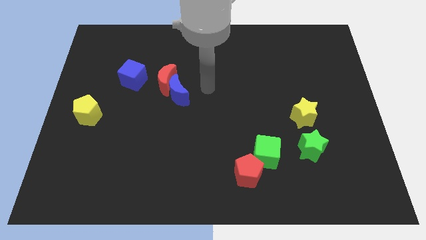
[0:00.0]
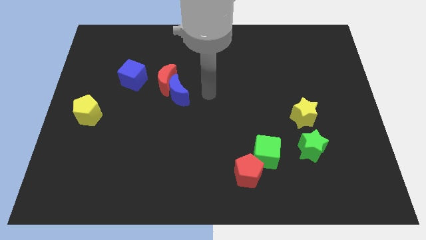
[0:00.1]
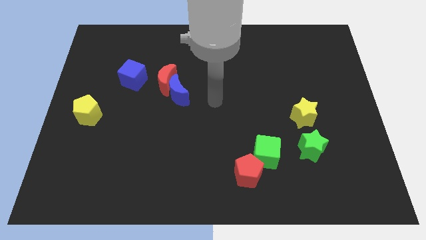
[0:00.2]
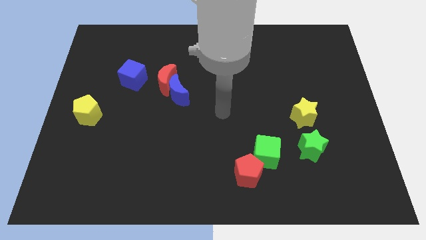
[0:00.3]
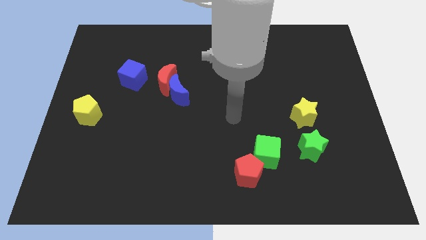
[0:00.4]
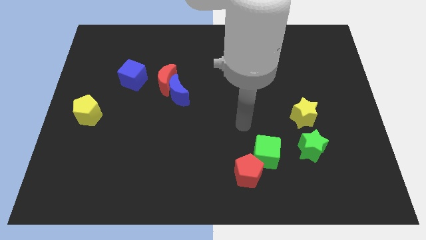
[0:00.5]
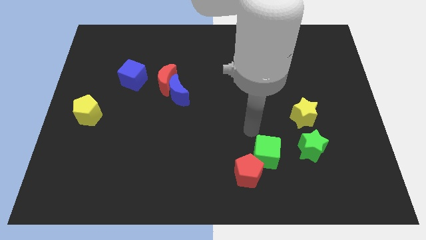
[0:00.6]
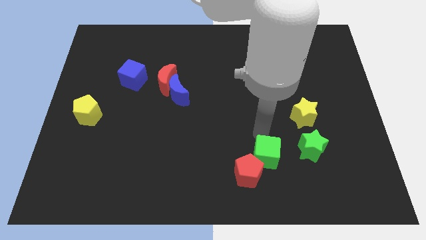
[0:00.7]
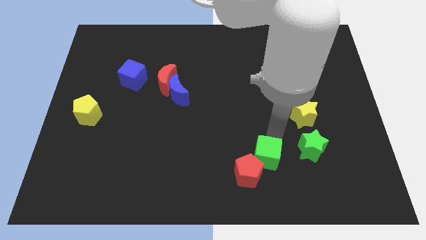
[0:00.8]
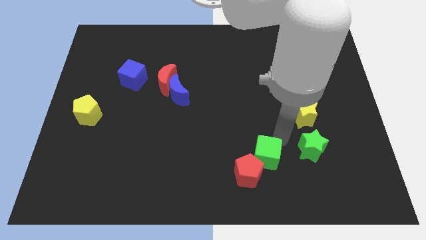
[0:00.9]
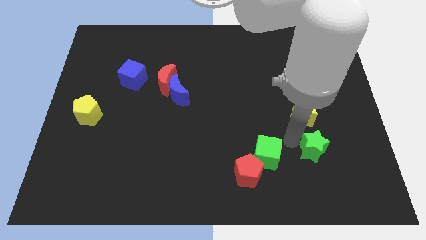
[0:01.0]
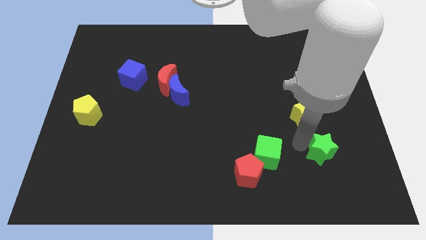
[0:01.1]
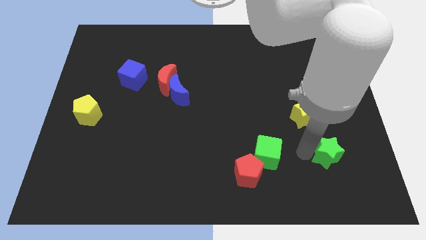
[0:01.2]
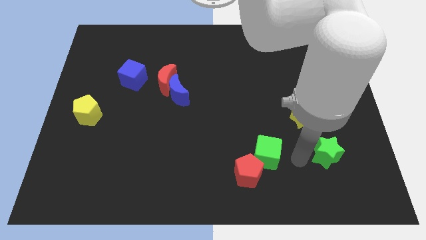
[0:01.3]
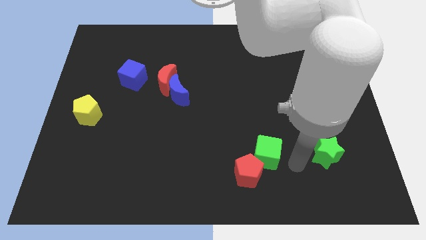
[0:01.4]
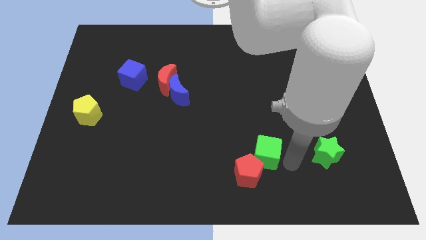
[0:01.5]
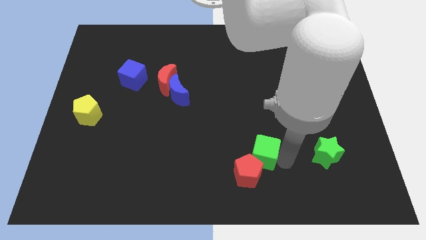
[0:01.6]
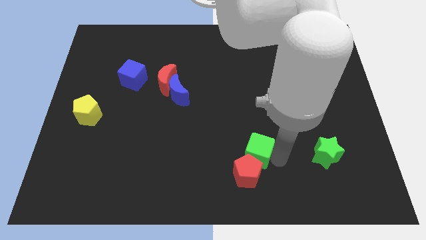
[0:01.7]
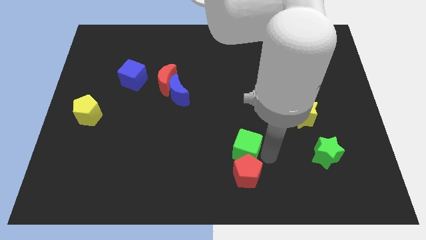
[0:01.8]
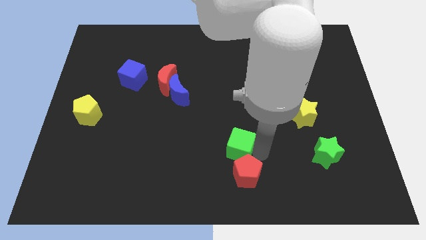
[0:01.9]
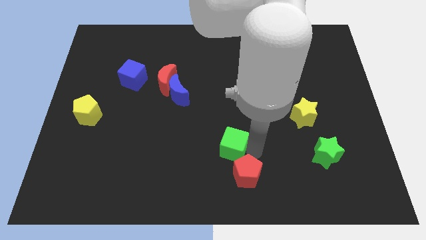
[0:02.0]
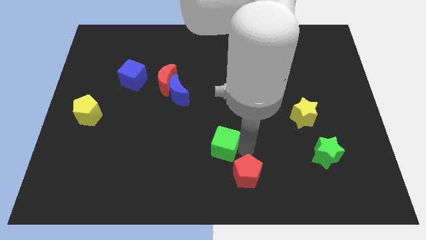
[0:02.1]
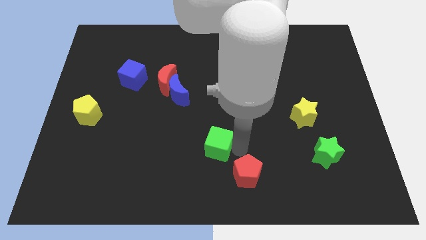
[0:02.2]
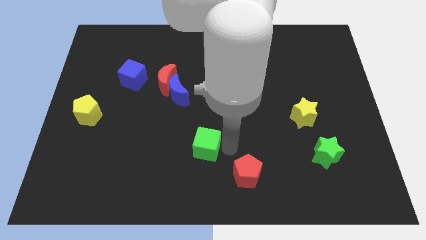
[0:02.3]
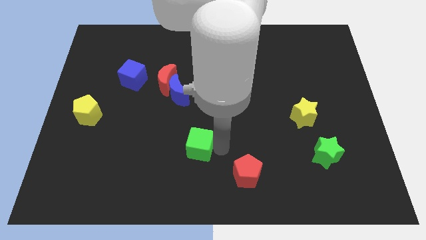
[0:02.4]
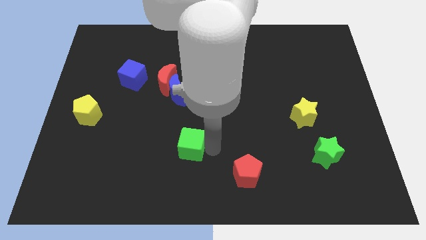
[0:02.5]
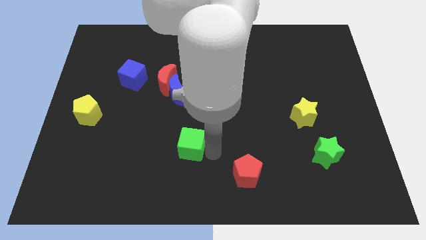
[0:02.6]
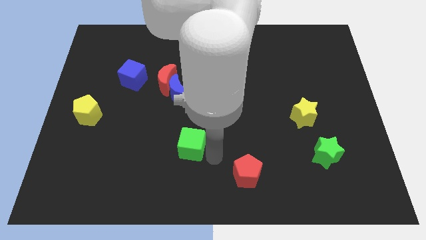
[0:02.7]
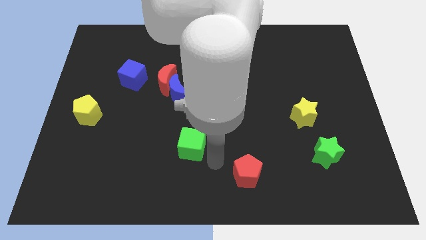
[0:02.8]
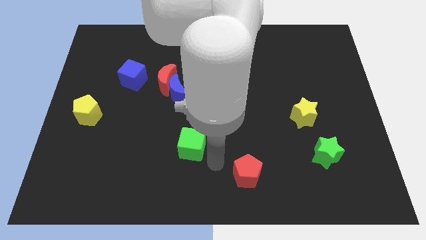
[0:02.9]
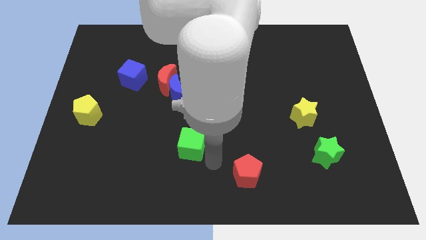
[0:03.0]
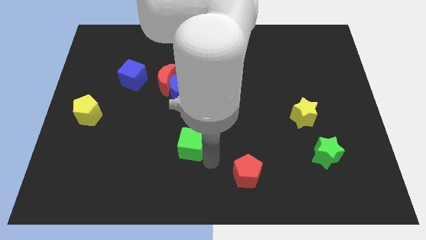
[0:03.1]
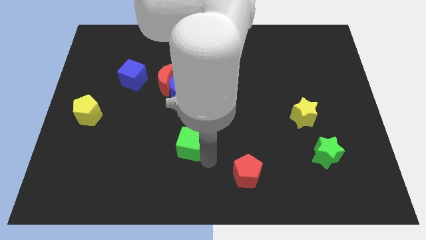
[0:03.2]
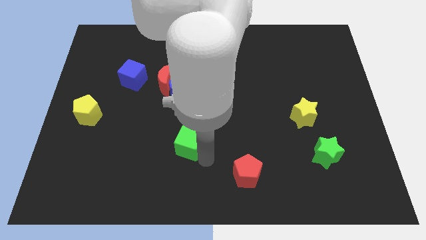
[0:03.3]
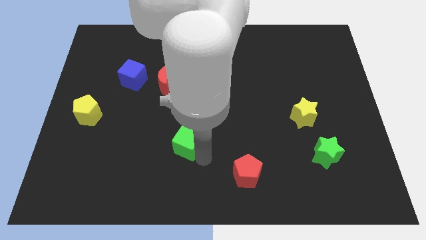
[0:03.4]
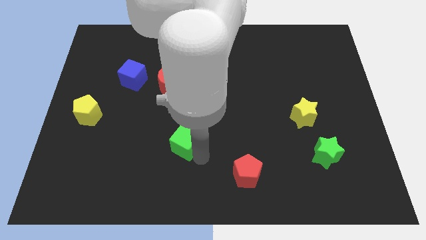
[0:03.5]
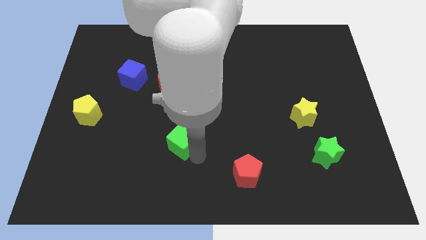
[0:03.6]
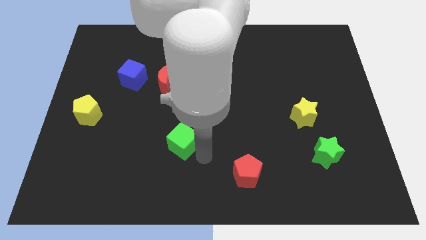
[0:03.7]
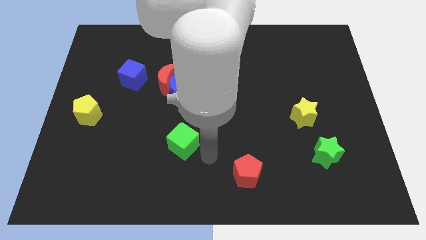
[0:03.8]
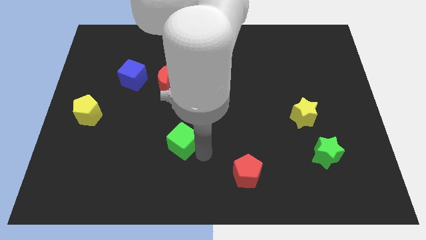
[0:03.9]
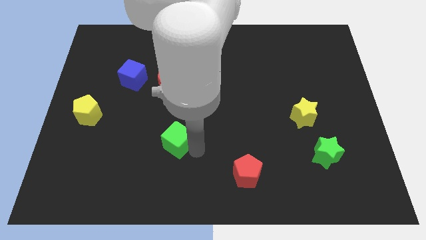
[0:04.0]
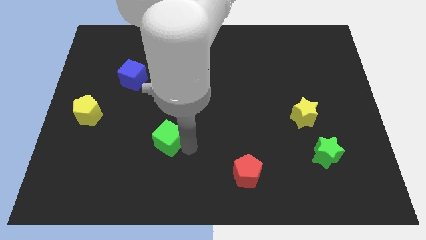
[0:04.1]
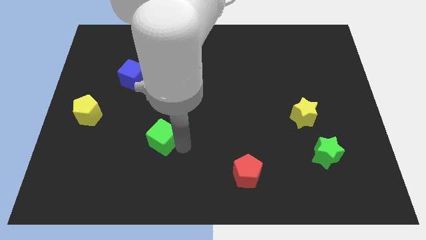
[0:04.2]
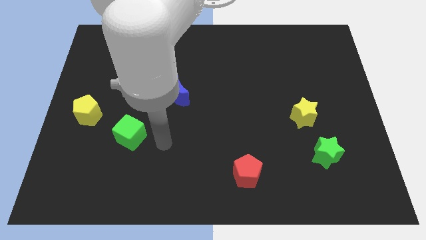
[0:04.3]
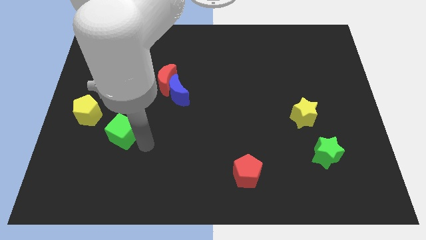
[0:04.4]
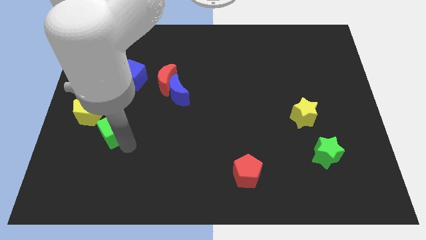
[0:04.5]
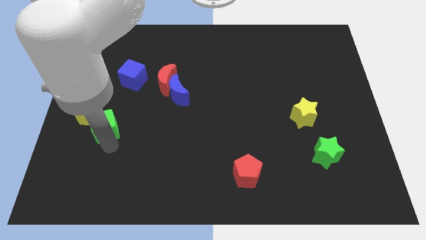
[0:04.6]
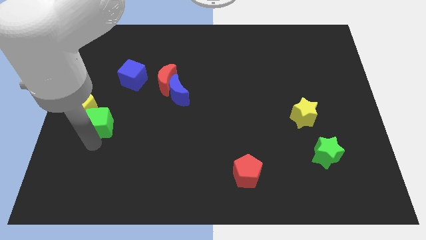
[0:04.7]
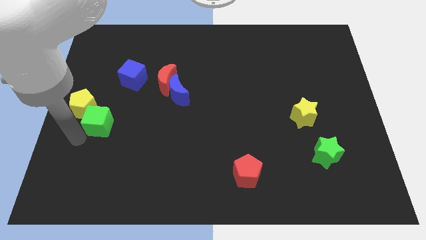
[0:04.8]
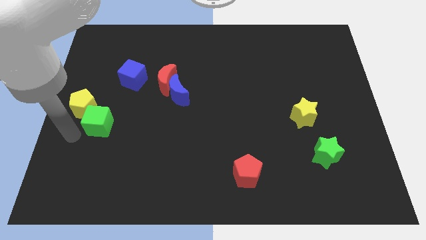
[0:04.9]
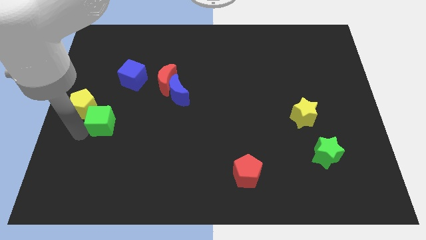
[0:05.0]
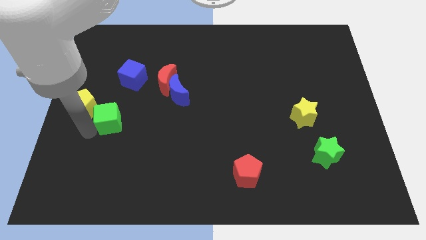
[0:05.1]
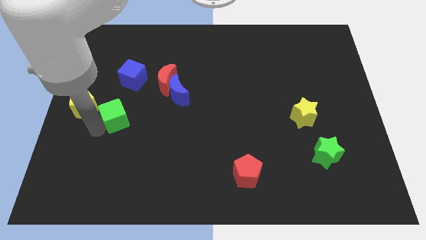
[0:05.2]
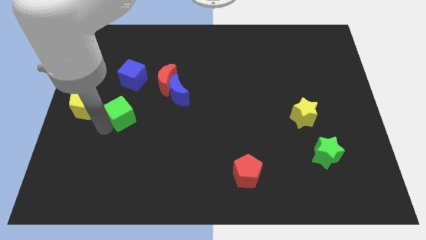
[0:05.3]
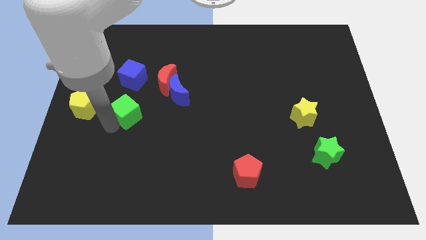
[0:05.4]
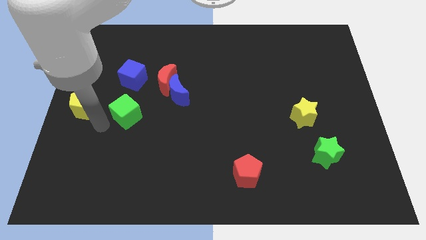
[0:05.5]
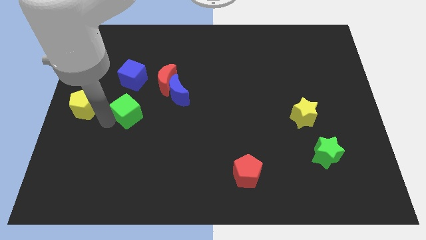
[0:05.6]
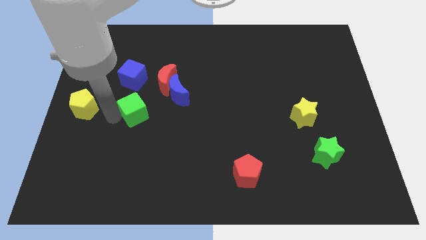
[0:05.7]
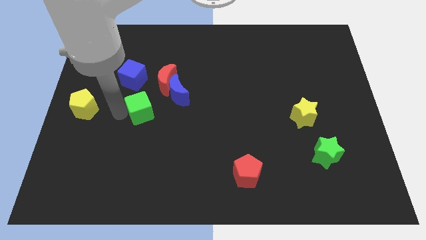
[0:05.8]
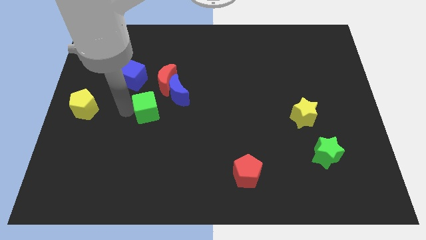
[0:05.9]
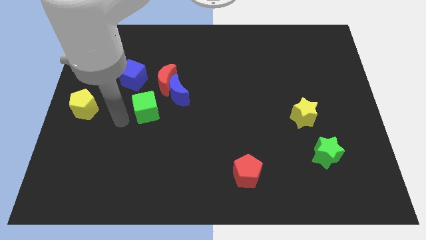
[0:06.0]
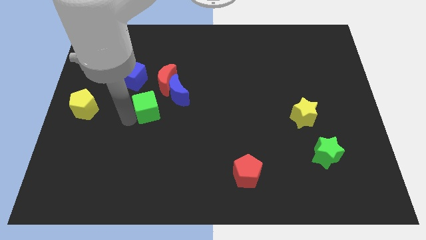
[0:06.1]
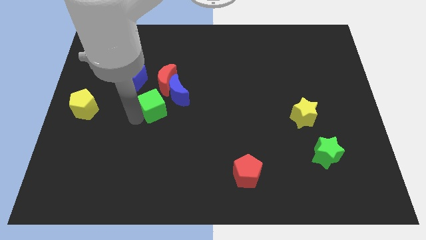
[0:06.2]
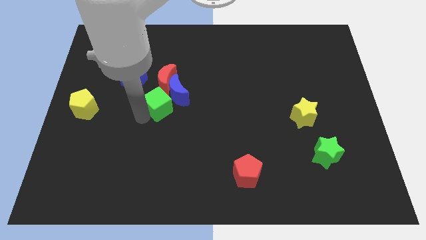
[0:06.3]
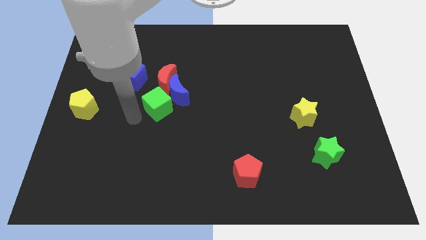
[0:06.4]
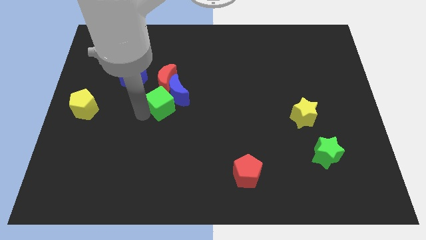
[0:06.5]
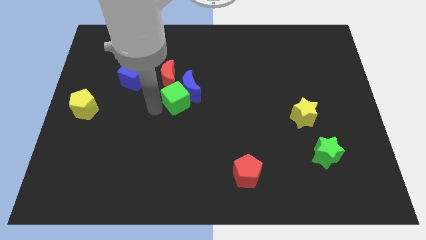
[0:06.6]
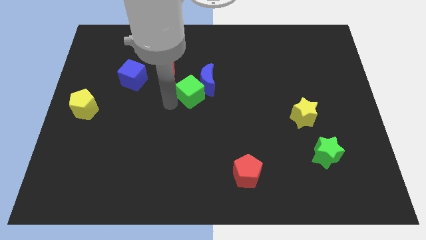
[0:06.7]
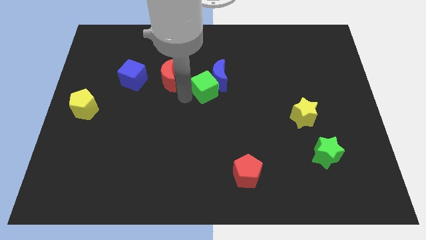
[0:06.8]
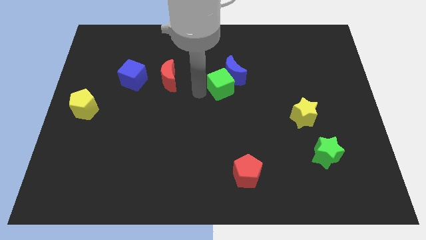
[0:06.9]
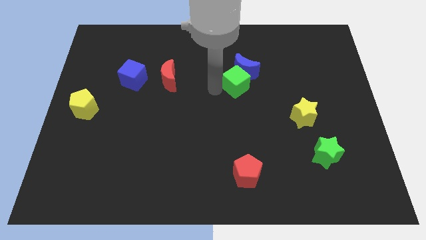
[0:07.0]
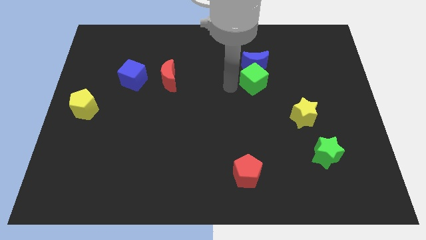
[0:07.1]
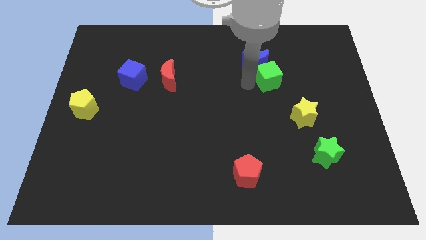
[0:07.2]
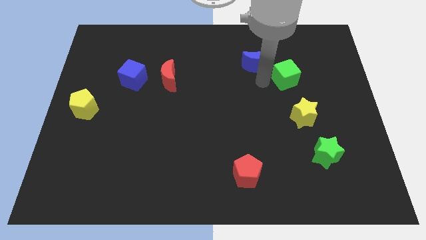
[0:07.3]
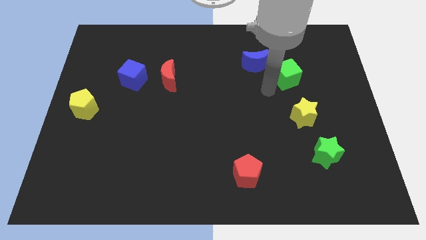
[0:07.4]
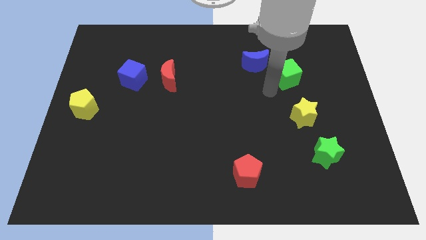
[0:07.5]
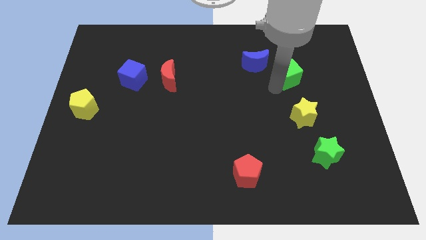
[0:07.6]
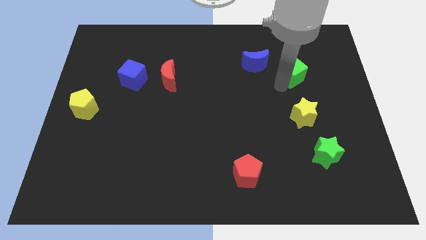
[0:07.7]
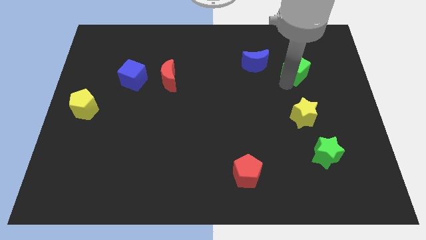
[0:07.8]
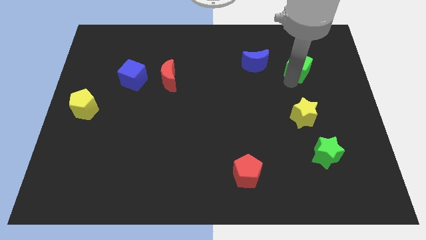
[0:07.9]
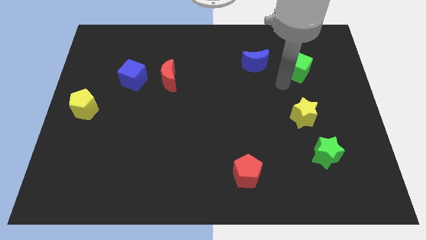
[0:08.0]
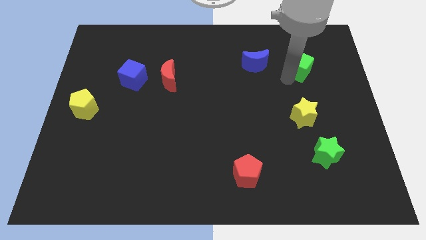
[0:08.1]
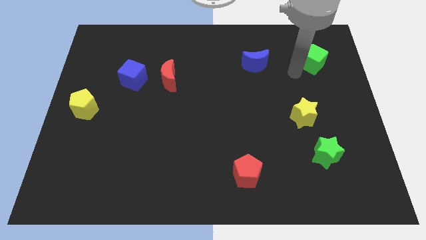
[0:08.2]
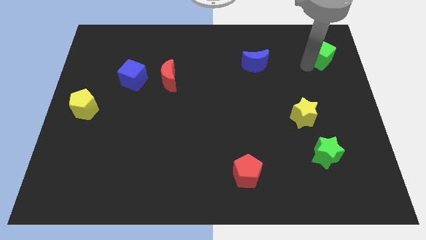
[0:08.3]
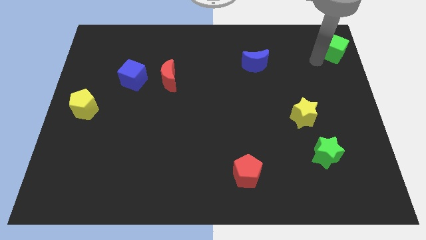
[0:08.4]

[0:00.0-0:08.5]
move the green cube to the upper right corner
